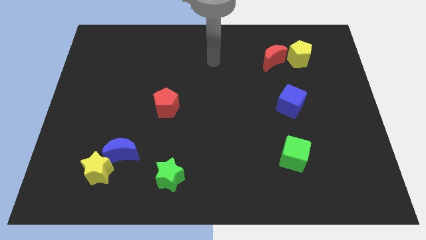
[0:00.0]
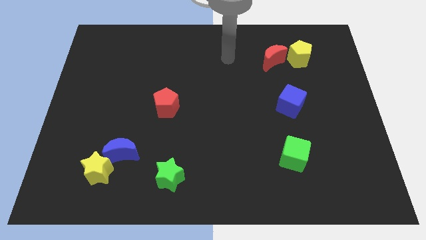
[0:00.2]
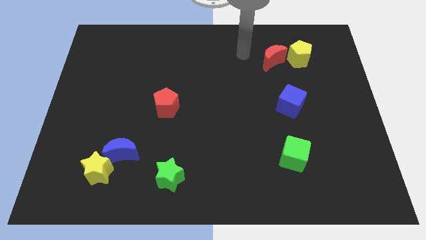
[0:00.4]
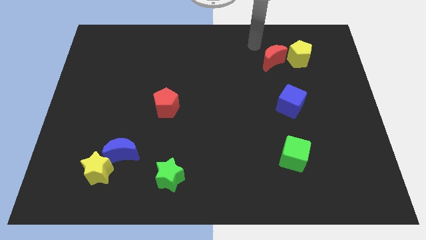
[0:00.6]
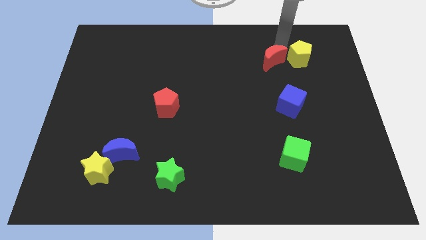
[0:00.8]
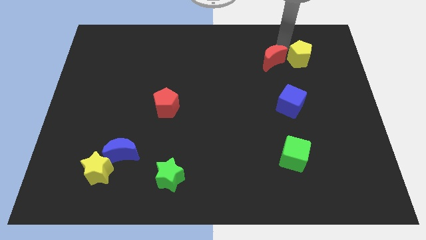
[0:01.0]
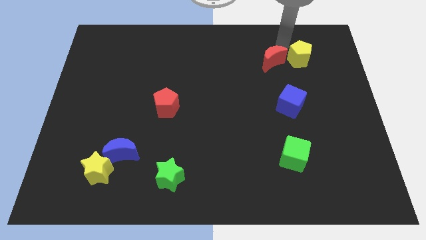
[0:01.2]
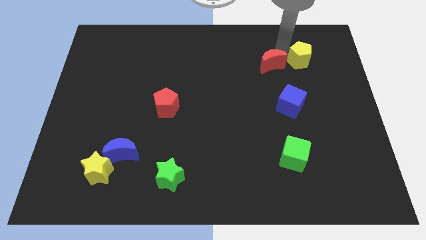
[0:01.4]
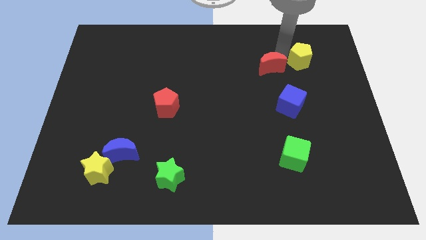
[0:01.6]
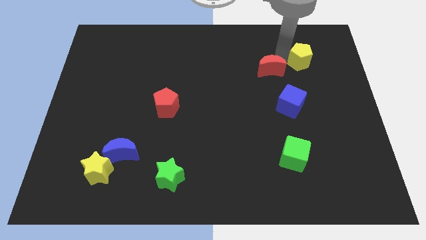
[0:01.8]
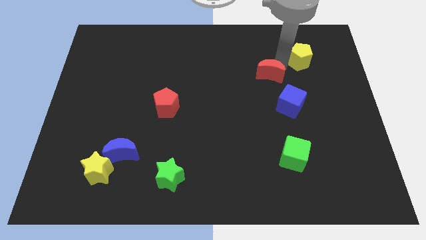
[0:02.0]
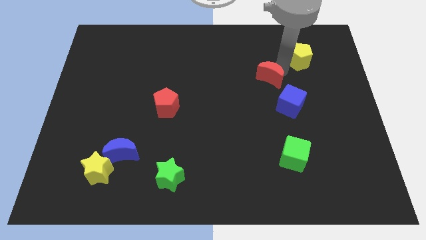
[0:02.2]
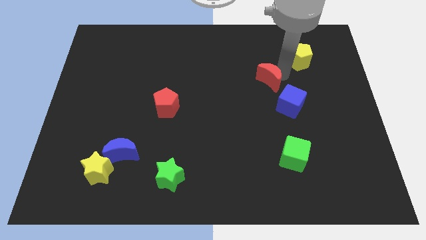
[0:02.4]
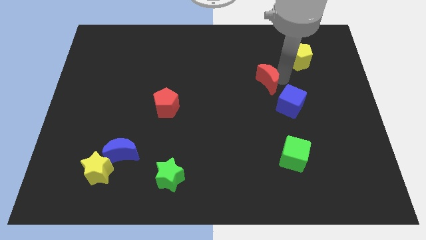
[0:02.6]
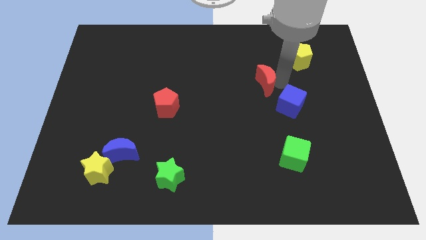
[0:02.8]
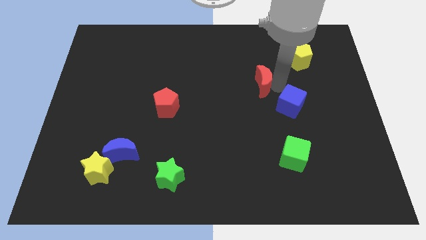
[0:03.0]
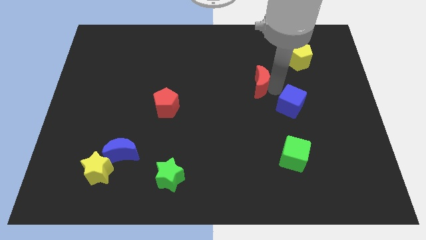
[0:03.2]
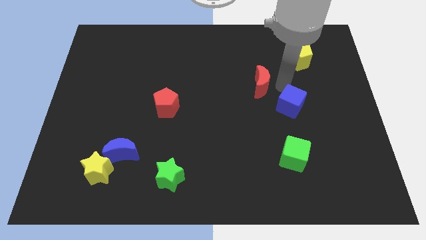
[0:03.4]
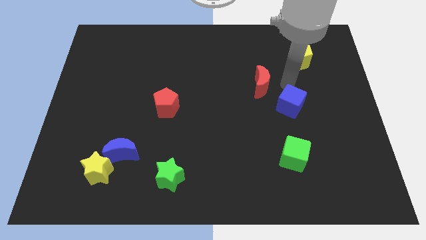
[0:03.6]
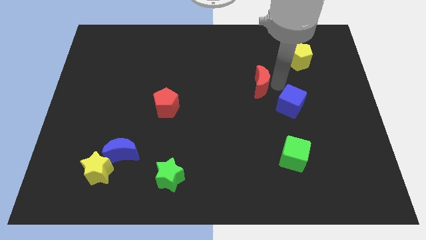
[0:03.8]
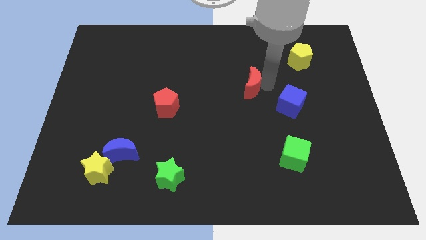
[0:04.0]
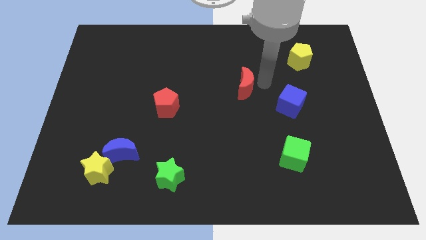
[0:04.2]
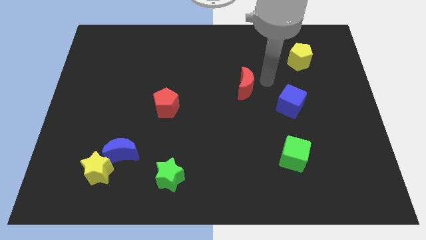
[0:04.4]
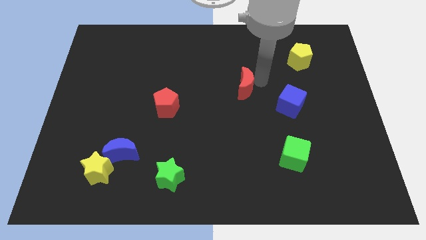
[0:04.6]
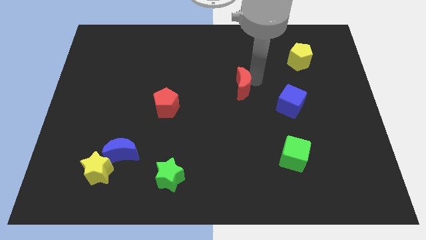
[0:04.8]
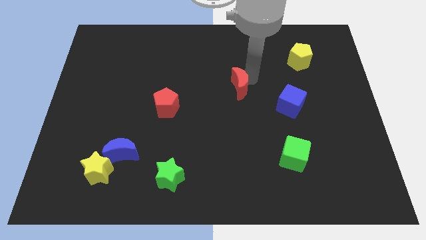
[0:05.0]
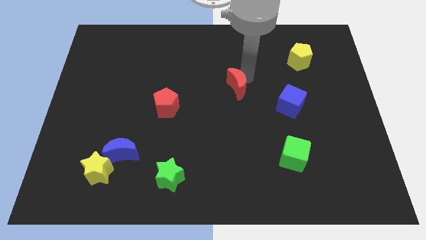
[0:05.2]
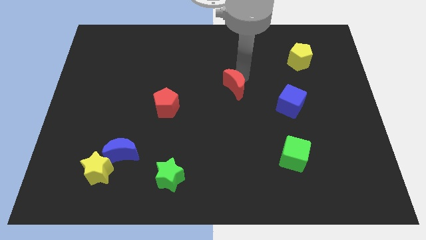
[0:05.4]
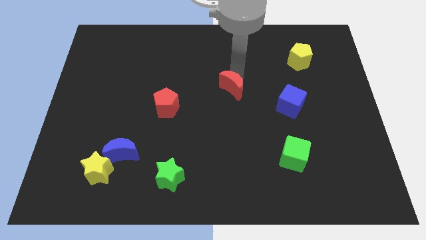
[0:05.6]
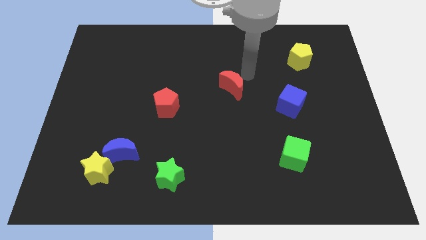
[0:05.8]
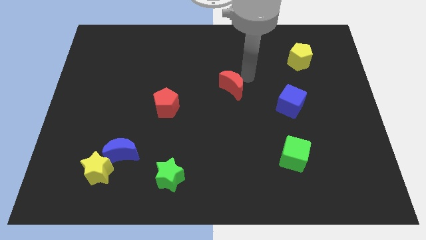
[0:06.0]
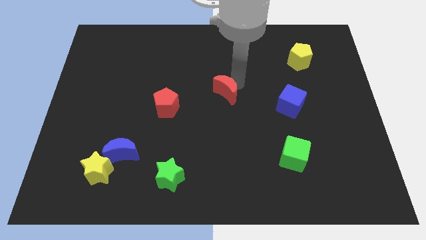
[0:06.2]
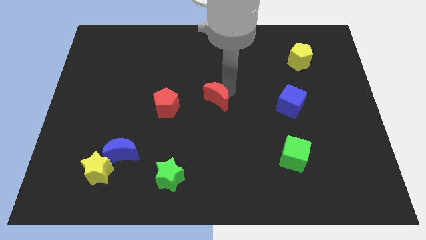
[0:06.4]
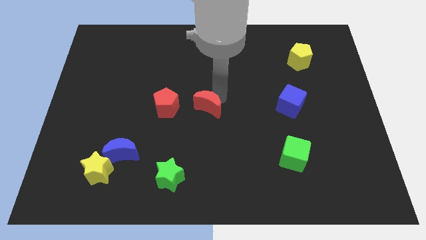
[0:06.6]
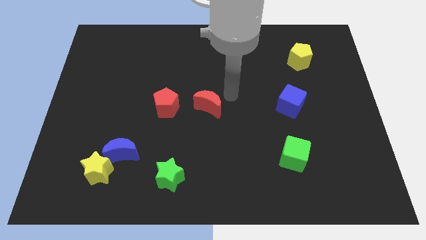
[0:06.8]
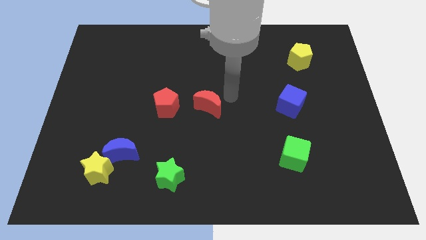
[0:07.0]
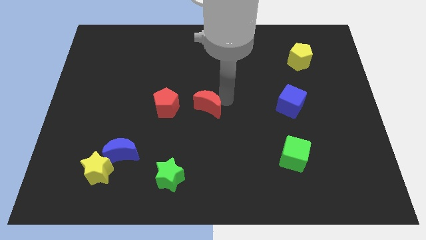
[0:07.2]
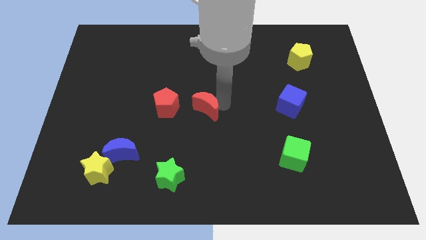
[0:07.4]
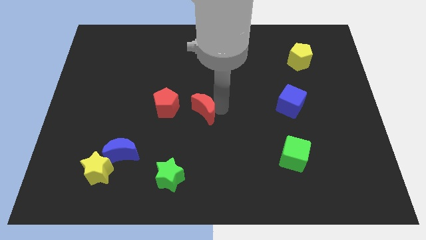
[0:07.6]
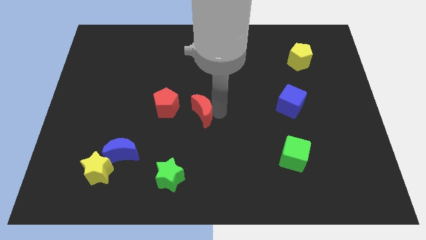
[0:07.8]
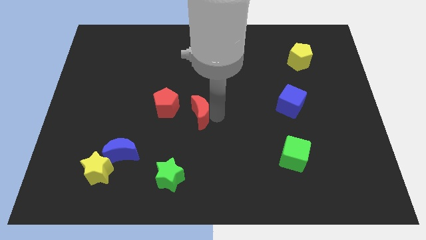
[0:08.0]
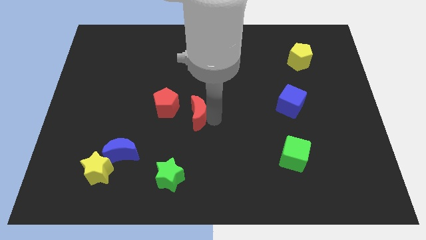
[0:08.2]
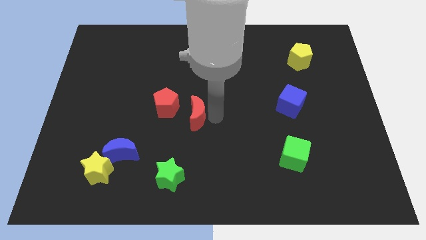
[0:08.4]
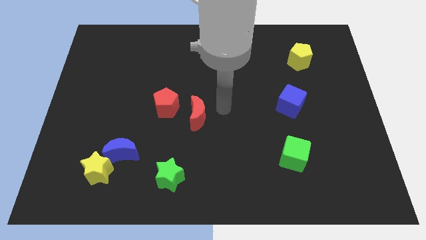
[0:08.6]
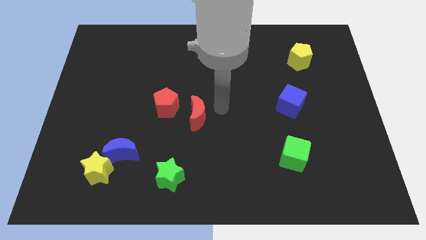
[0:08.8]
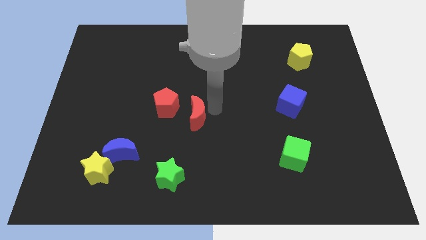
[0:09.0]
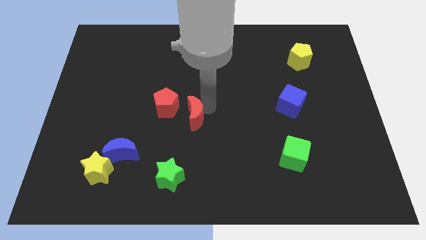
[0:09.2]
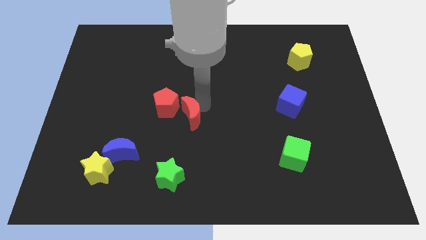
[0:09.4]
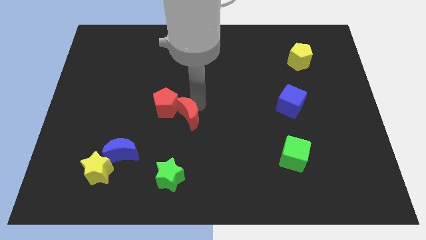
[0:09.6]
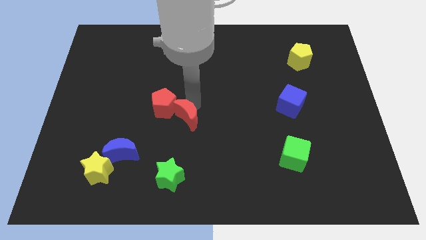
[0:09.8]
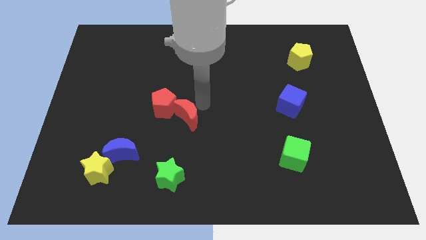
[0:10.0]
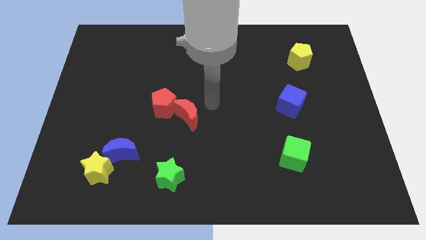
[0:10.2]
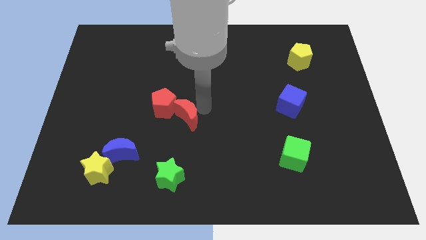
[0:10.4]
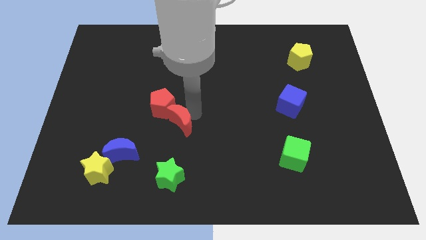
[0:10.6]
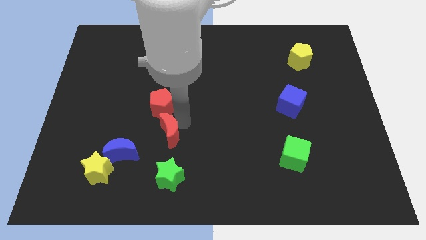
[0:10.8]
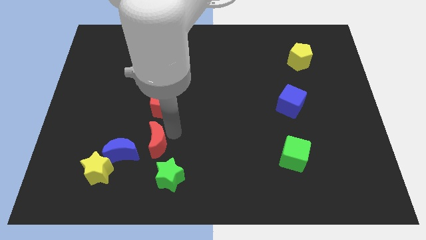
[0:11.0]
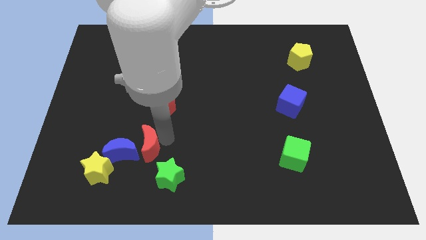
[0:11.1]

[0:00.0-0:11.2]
push the red moon close to the blue moon
